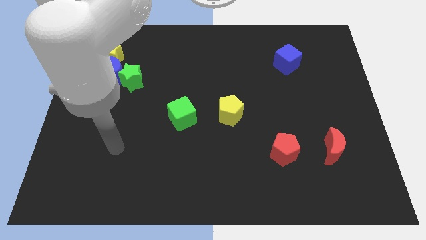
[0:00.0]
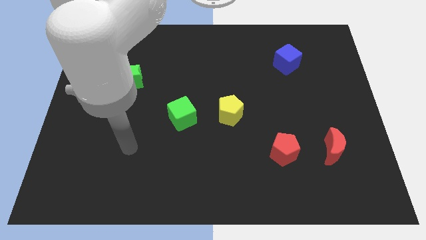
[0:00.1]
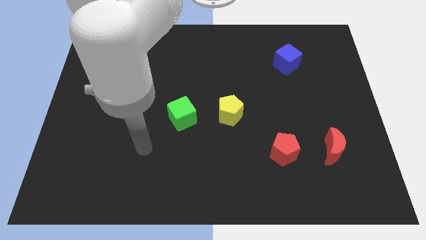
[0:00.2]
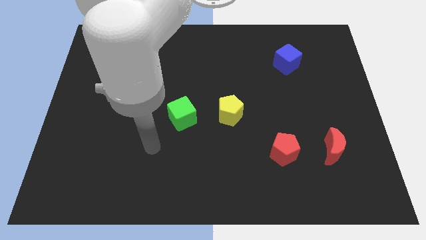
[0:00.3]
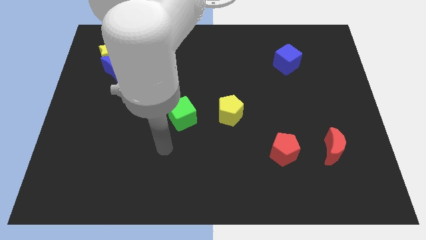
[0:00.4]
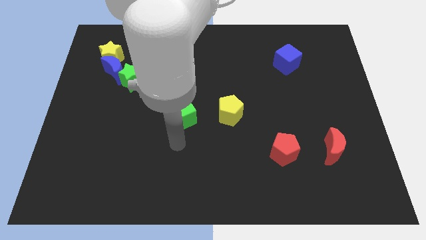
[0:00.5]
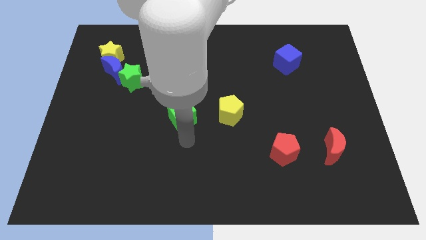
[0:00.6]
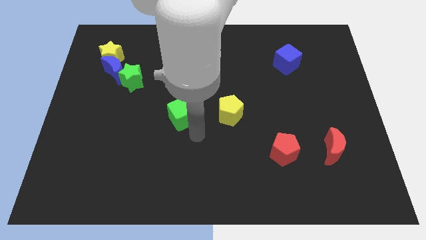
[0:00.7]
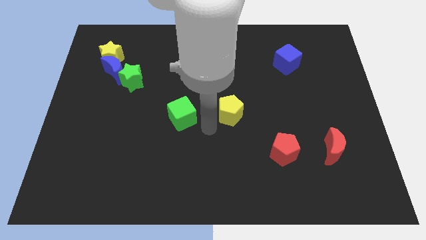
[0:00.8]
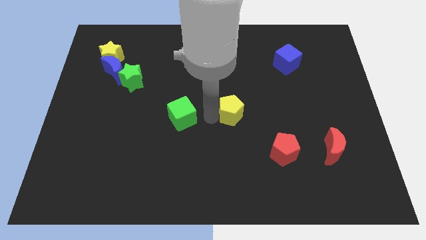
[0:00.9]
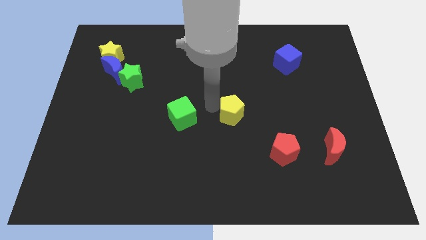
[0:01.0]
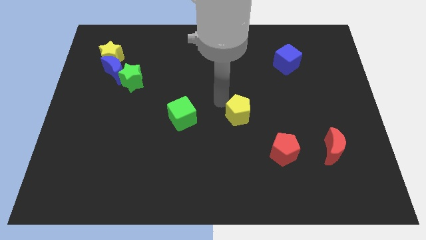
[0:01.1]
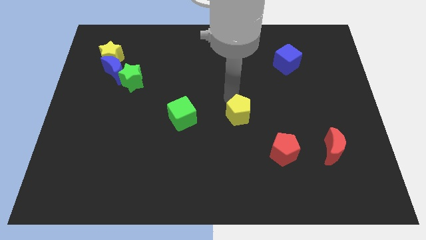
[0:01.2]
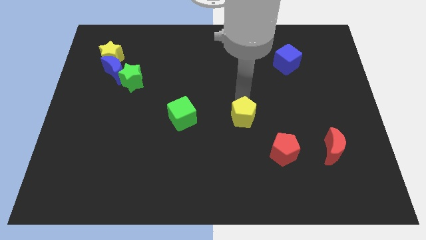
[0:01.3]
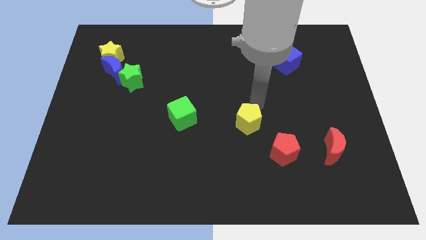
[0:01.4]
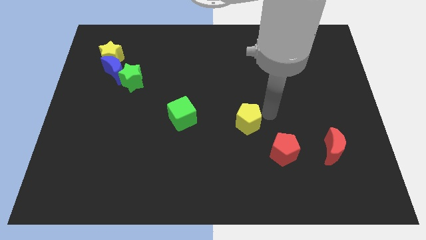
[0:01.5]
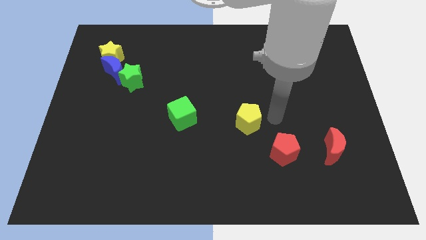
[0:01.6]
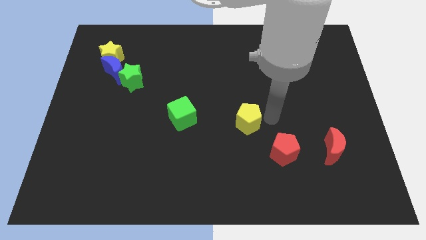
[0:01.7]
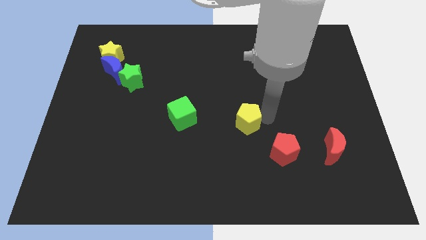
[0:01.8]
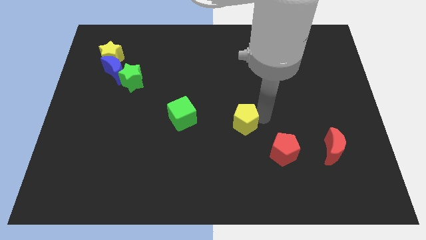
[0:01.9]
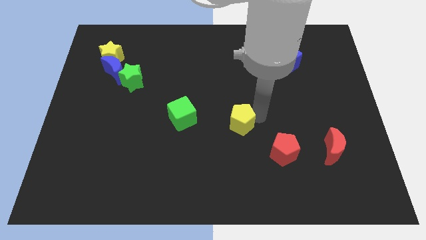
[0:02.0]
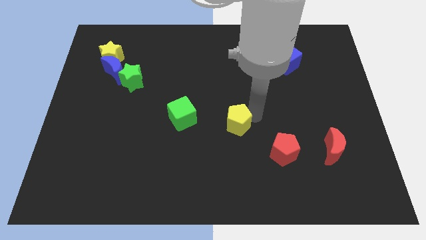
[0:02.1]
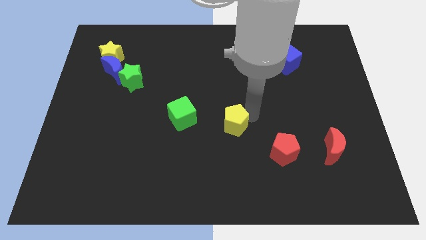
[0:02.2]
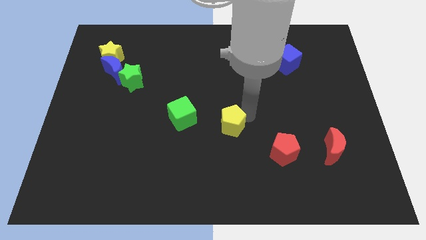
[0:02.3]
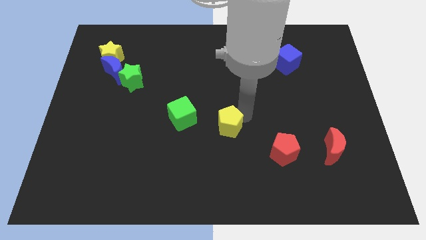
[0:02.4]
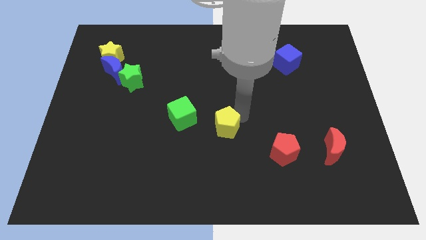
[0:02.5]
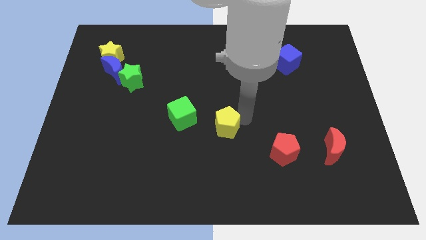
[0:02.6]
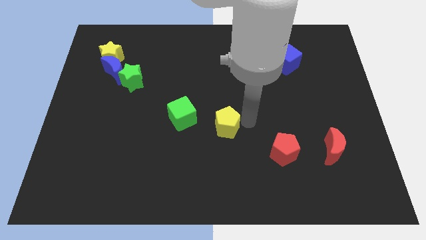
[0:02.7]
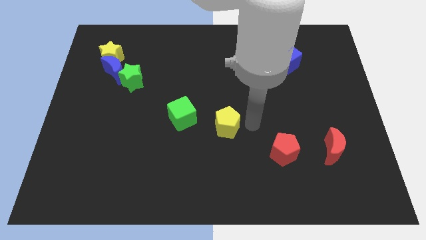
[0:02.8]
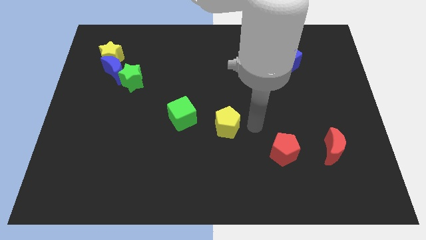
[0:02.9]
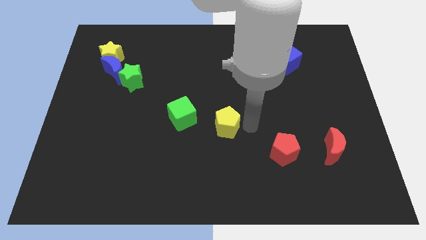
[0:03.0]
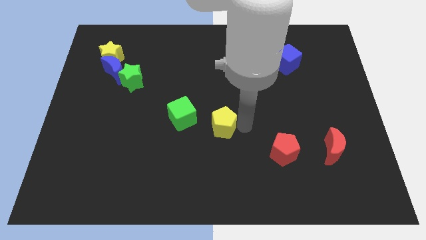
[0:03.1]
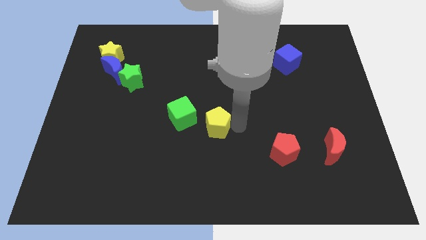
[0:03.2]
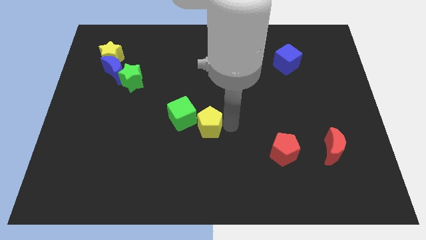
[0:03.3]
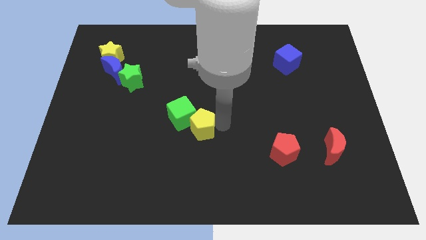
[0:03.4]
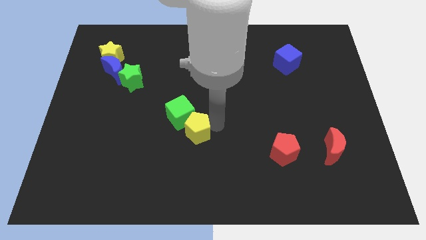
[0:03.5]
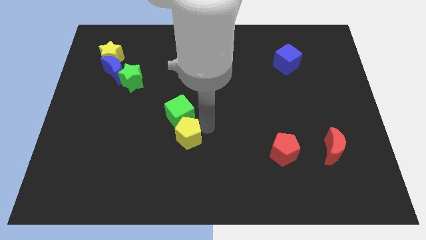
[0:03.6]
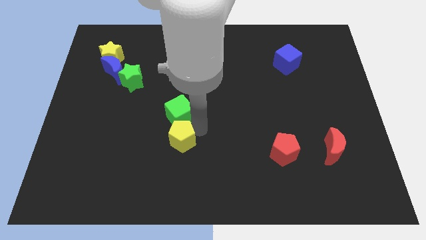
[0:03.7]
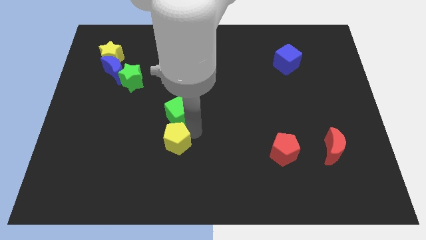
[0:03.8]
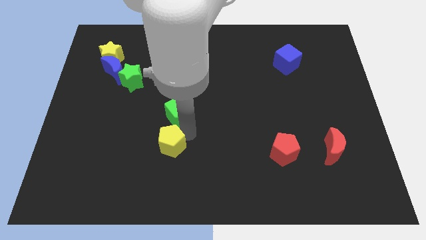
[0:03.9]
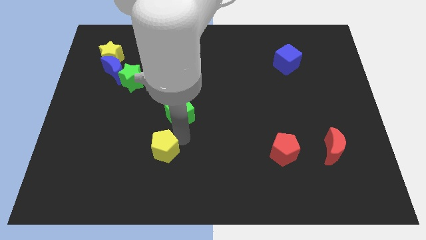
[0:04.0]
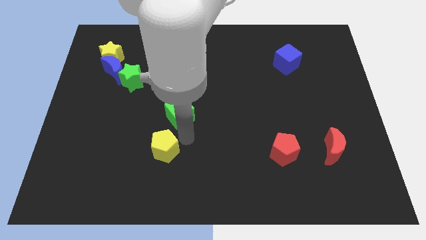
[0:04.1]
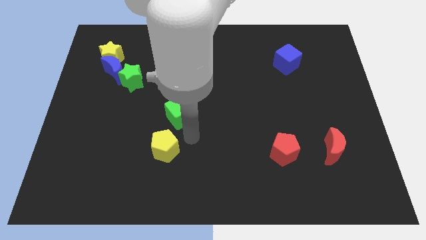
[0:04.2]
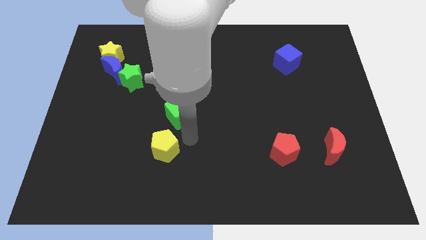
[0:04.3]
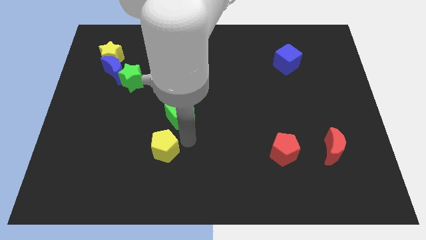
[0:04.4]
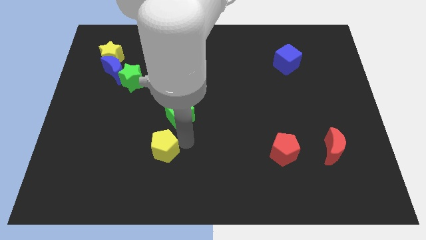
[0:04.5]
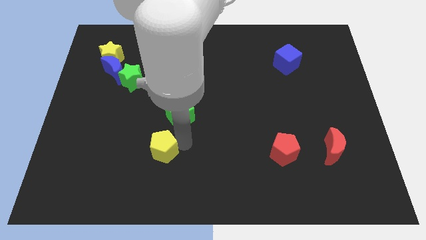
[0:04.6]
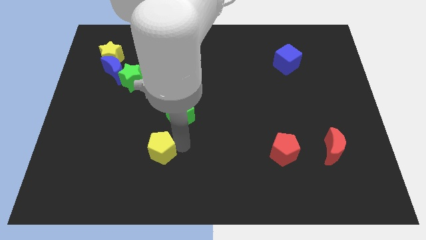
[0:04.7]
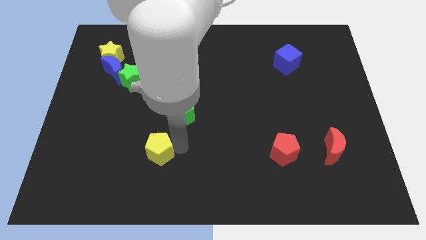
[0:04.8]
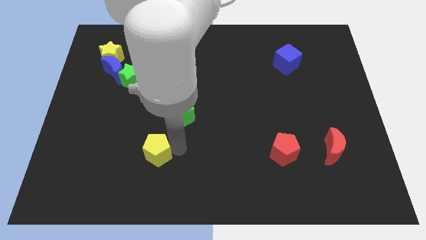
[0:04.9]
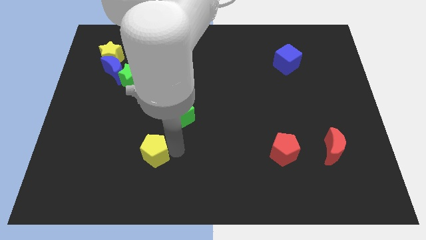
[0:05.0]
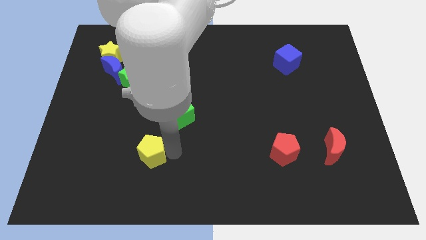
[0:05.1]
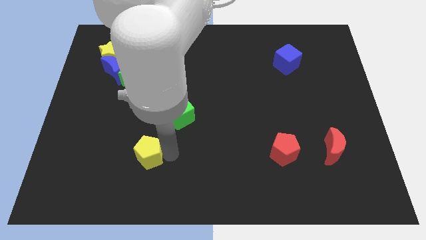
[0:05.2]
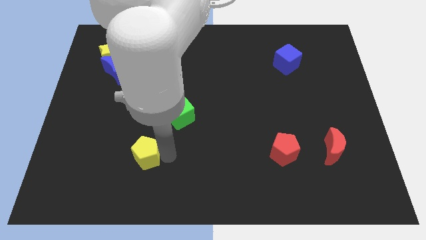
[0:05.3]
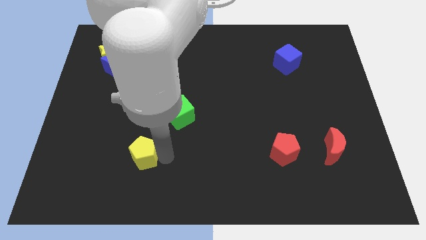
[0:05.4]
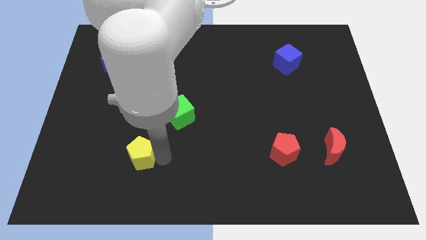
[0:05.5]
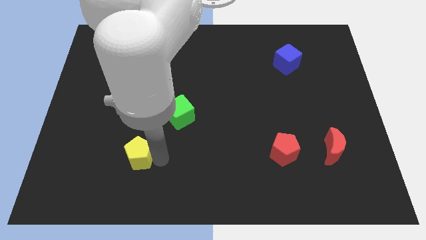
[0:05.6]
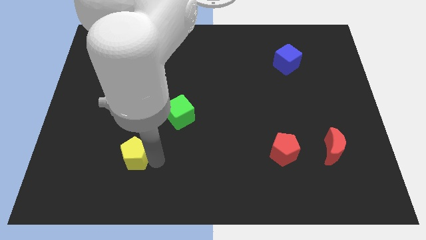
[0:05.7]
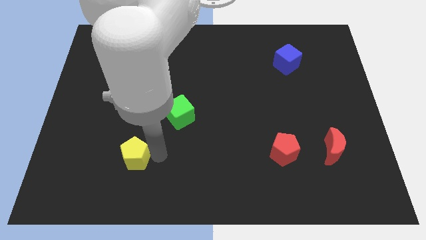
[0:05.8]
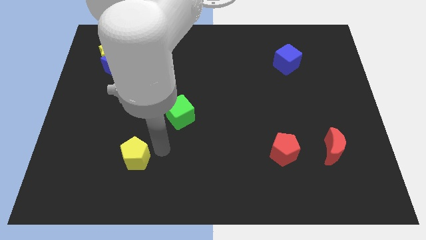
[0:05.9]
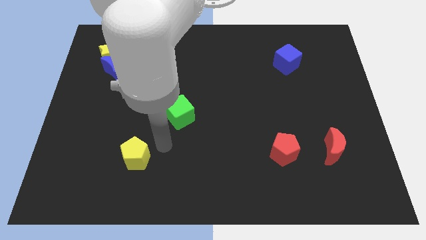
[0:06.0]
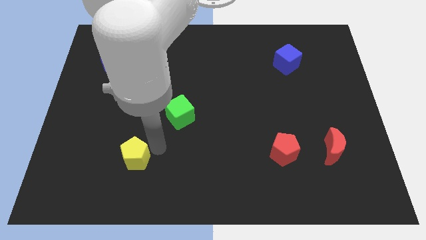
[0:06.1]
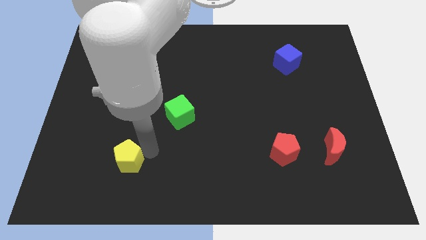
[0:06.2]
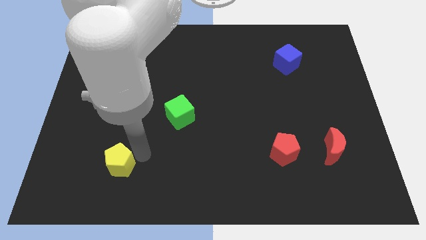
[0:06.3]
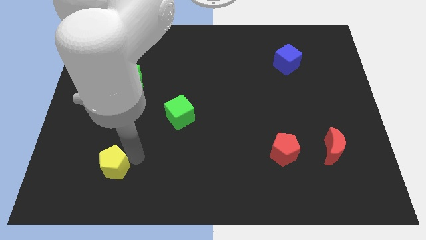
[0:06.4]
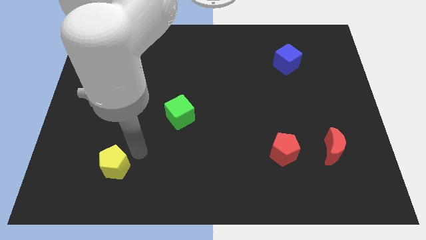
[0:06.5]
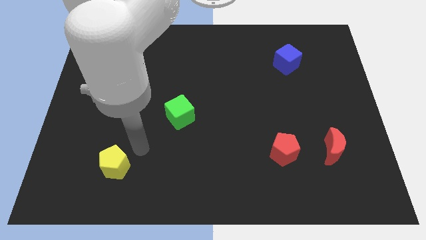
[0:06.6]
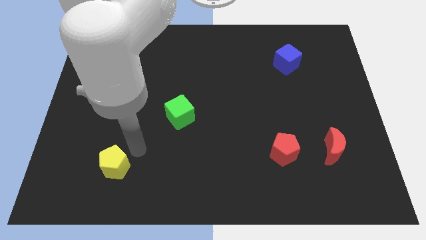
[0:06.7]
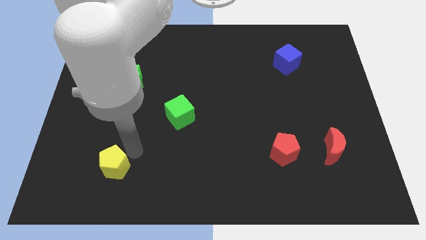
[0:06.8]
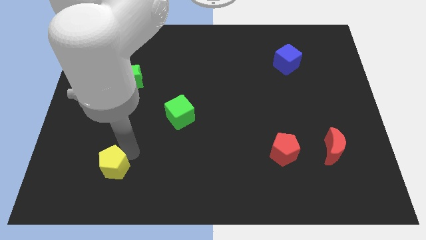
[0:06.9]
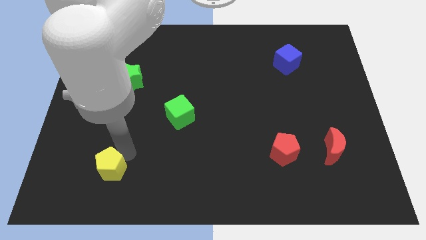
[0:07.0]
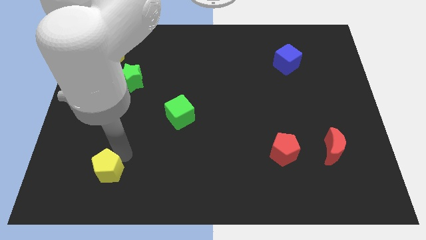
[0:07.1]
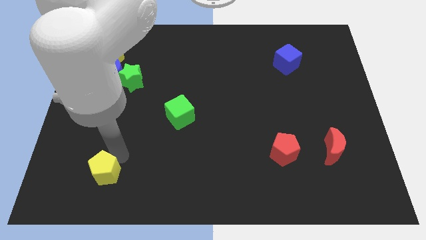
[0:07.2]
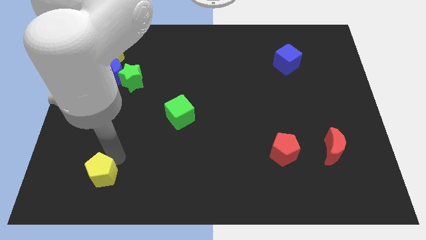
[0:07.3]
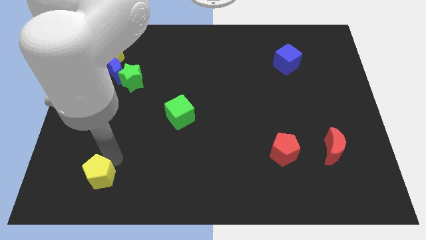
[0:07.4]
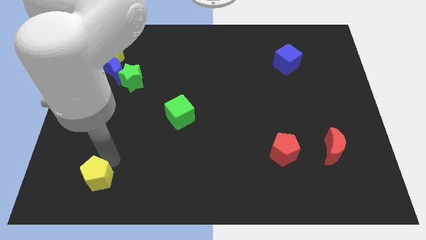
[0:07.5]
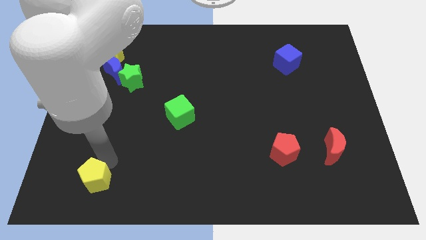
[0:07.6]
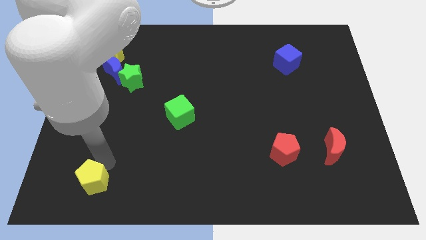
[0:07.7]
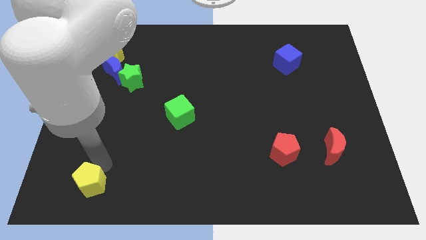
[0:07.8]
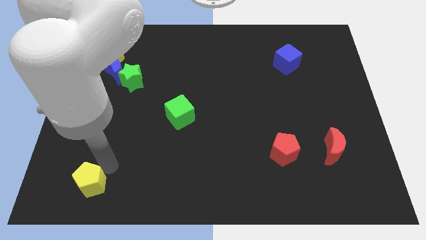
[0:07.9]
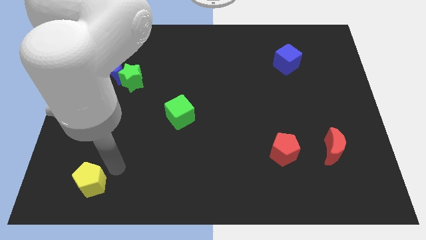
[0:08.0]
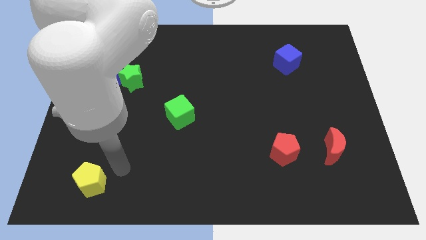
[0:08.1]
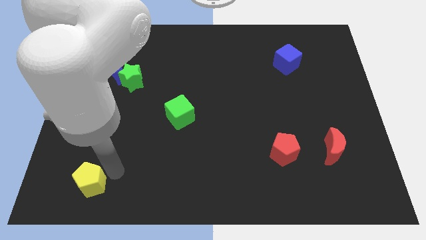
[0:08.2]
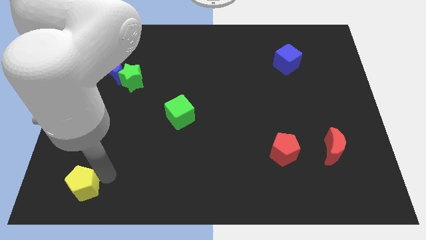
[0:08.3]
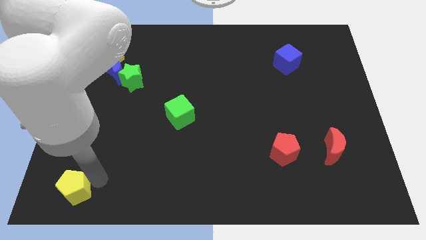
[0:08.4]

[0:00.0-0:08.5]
push the yellow pentagon to the bottom left of the board
